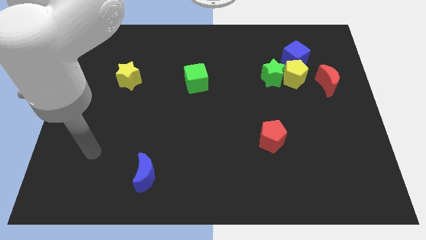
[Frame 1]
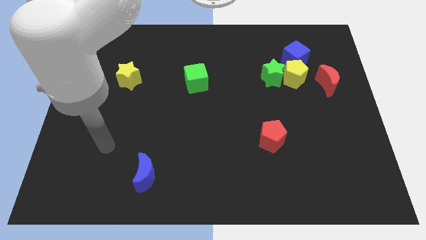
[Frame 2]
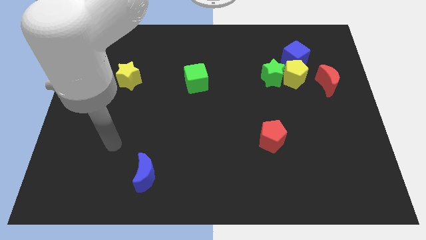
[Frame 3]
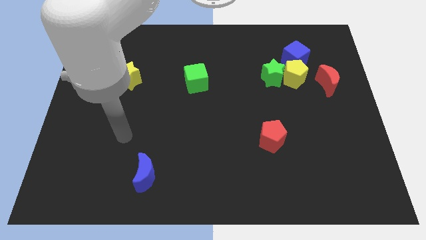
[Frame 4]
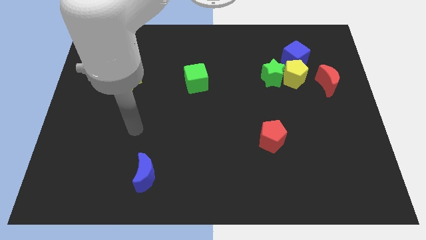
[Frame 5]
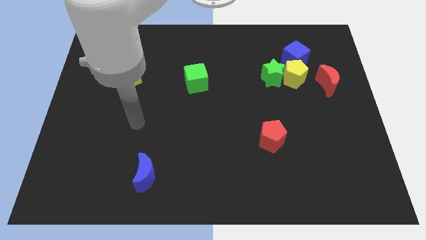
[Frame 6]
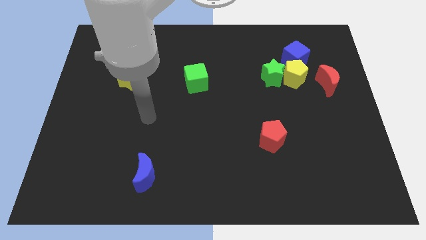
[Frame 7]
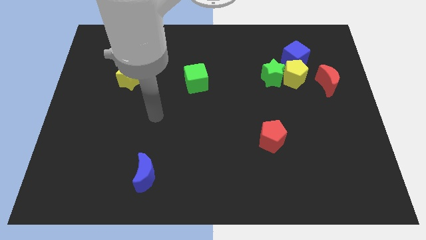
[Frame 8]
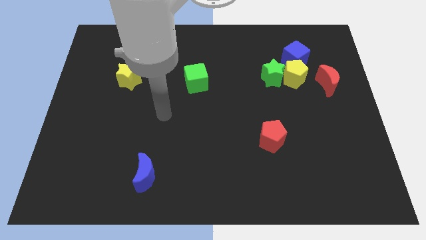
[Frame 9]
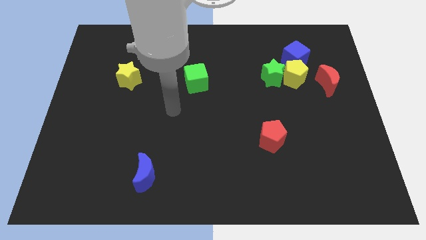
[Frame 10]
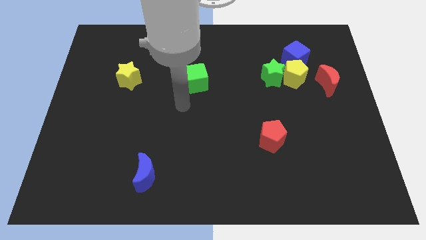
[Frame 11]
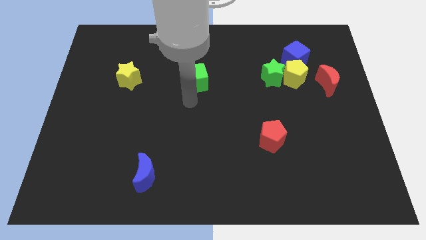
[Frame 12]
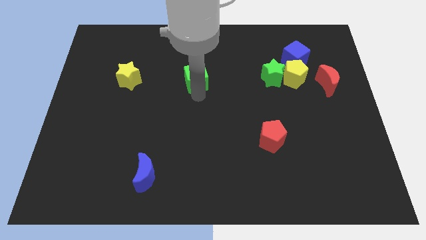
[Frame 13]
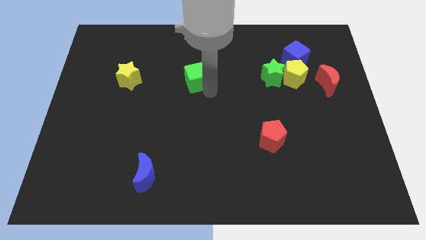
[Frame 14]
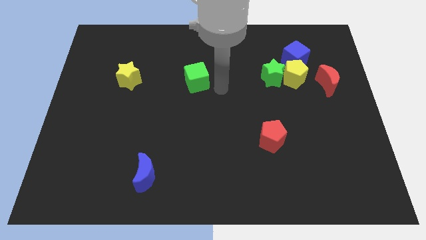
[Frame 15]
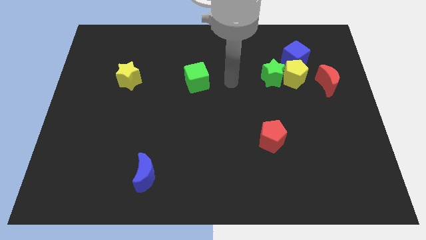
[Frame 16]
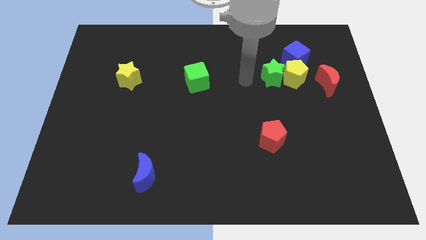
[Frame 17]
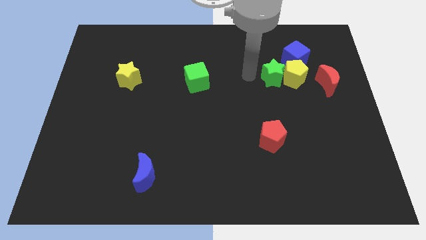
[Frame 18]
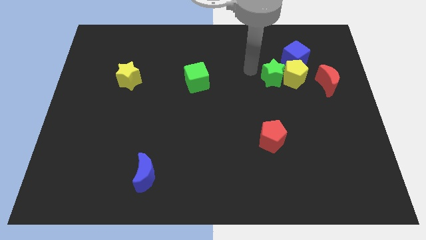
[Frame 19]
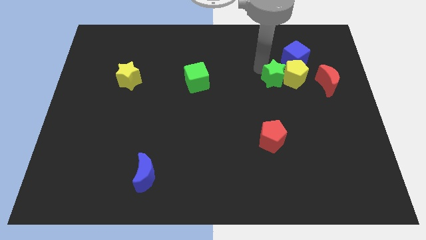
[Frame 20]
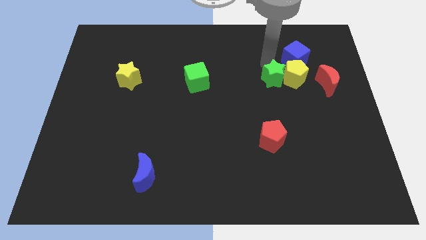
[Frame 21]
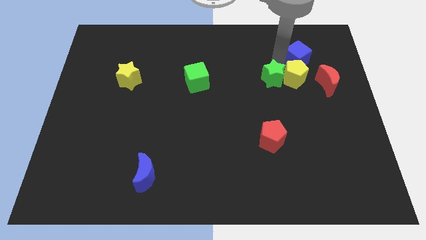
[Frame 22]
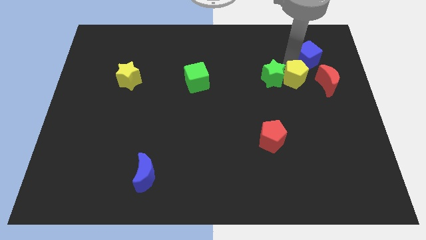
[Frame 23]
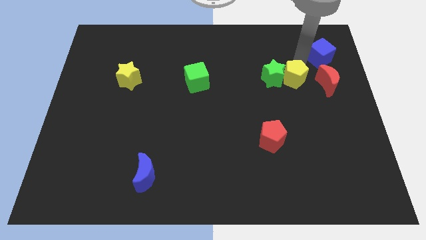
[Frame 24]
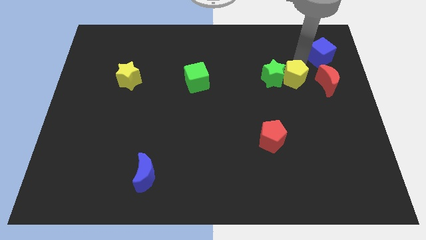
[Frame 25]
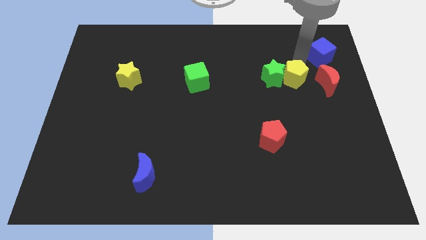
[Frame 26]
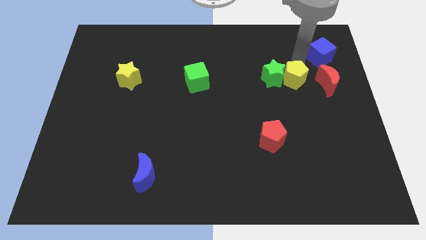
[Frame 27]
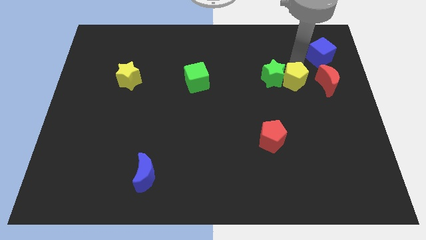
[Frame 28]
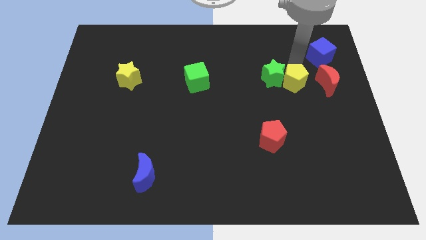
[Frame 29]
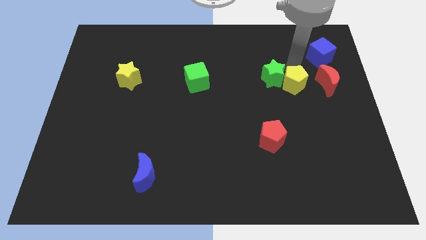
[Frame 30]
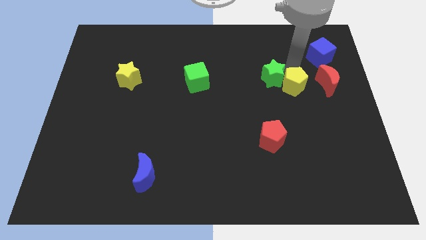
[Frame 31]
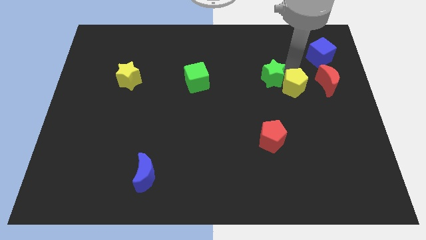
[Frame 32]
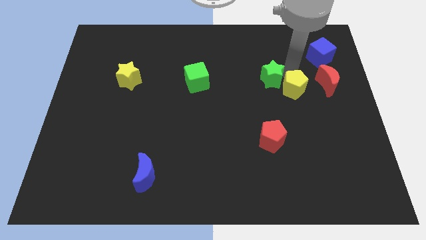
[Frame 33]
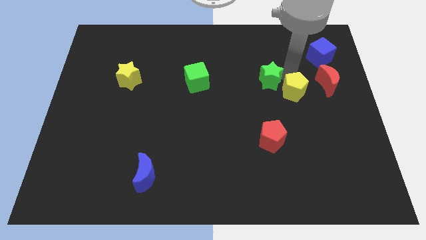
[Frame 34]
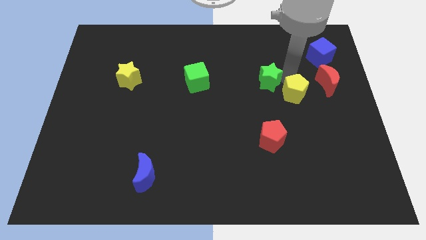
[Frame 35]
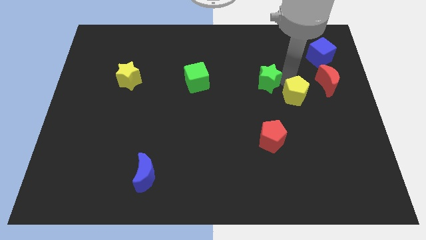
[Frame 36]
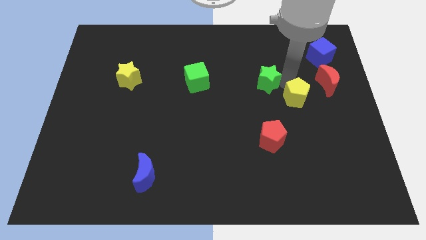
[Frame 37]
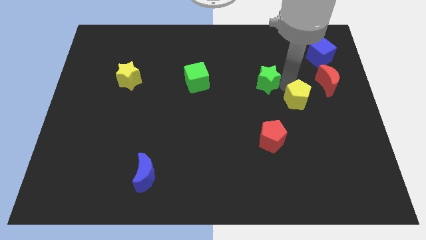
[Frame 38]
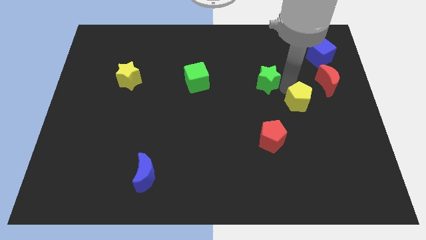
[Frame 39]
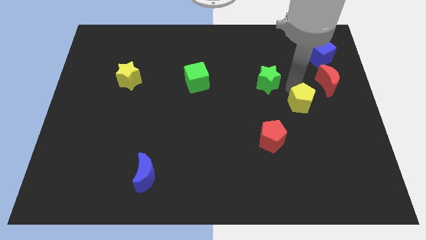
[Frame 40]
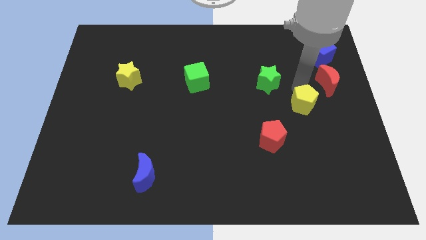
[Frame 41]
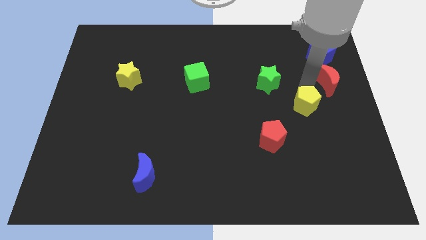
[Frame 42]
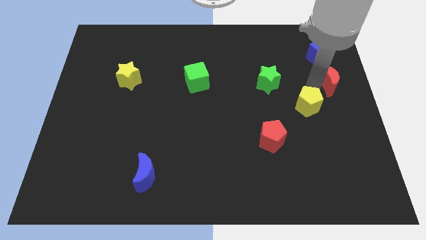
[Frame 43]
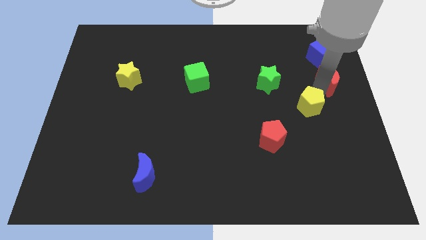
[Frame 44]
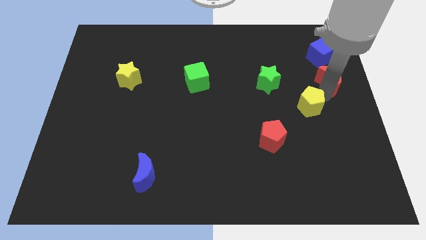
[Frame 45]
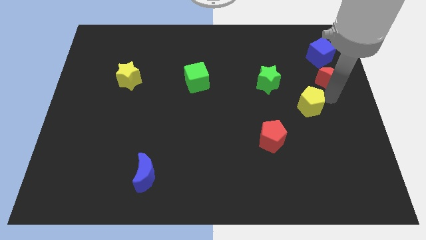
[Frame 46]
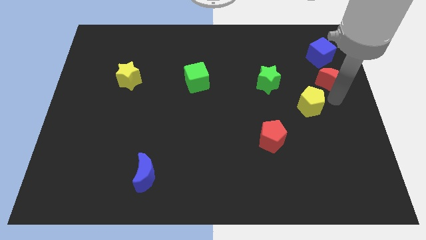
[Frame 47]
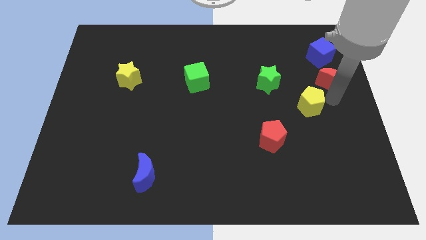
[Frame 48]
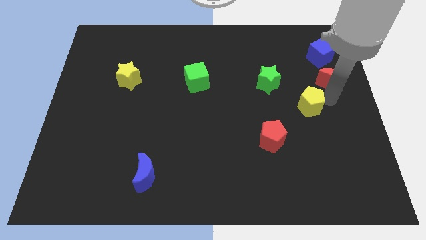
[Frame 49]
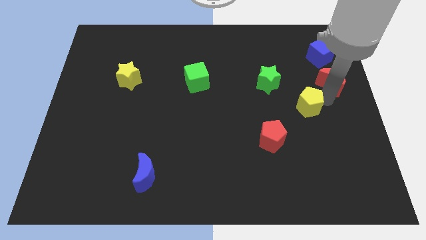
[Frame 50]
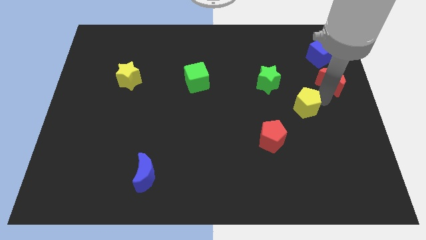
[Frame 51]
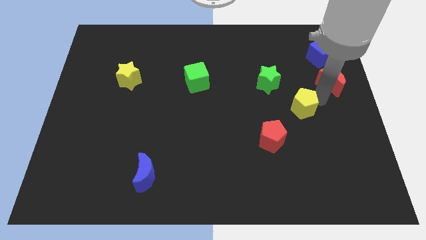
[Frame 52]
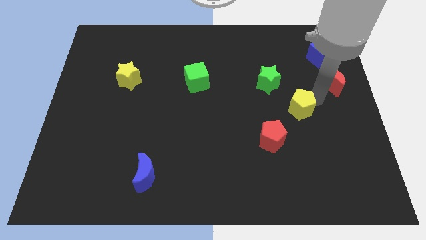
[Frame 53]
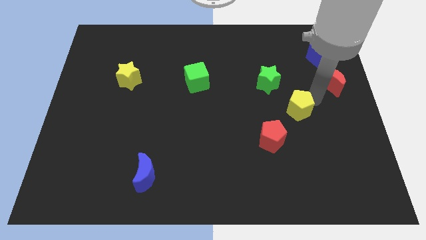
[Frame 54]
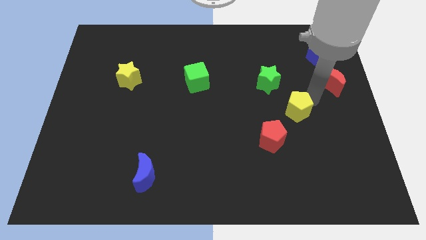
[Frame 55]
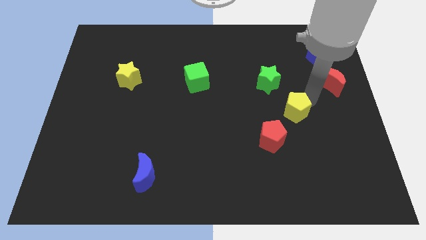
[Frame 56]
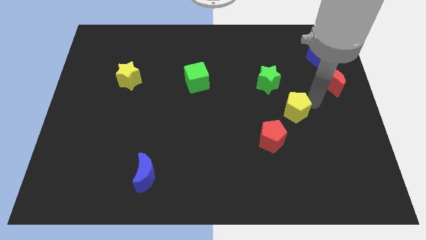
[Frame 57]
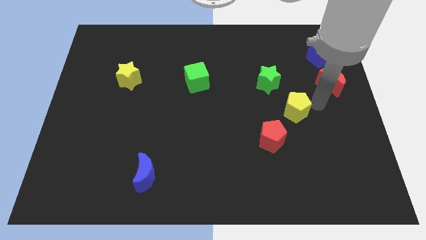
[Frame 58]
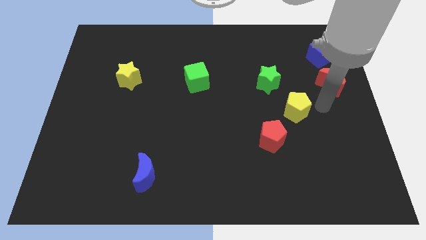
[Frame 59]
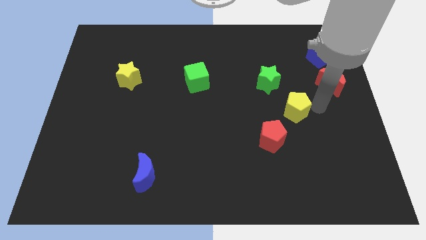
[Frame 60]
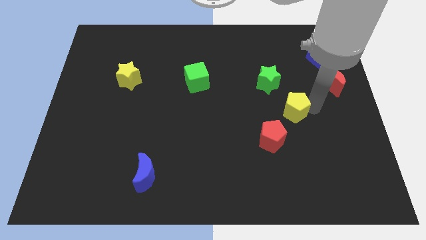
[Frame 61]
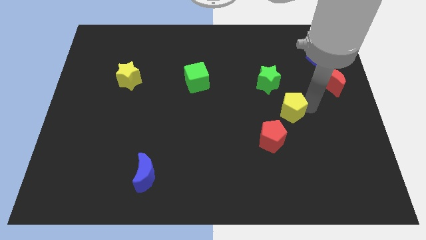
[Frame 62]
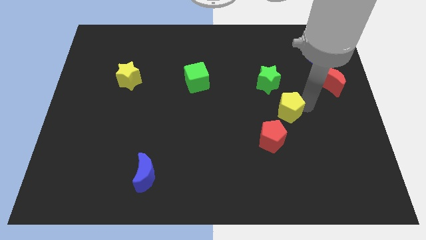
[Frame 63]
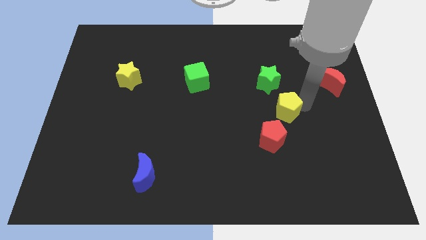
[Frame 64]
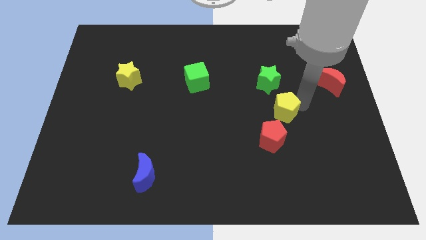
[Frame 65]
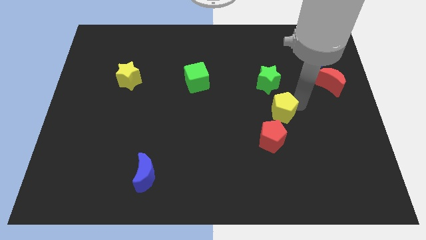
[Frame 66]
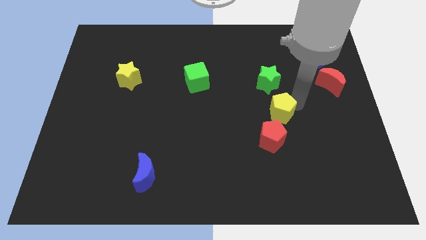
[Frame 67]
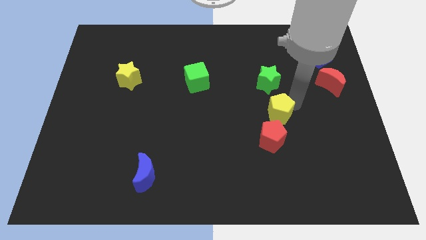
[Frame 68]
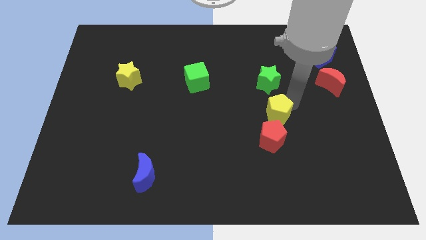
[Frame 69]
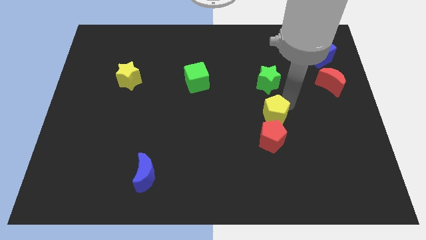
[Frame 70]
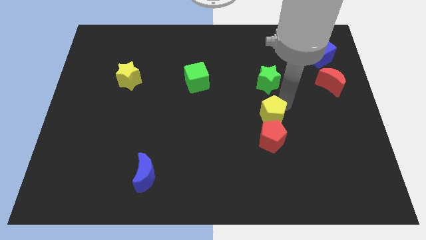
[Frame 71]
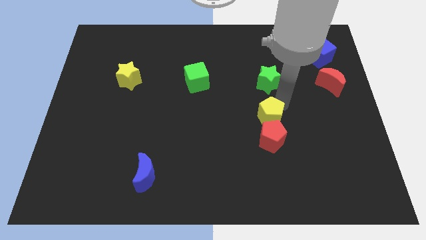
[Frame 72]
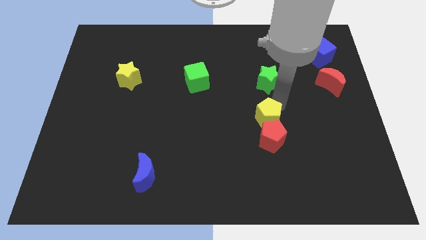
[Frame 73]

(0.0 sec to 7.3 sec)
push the yellow pentagon to the red pentagon
